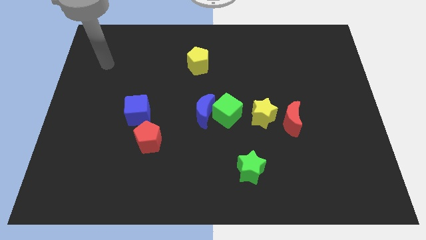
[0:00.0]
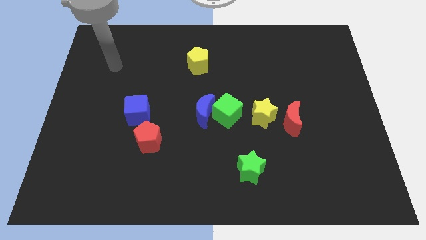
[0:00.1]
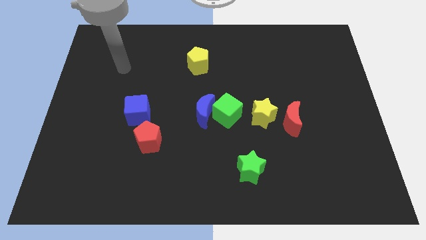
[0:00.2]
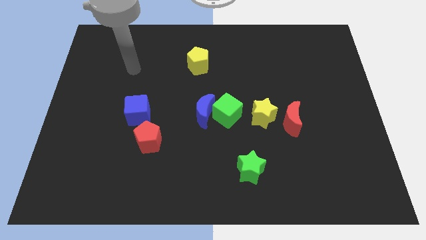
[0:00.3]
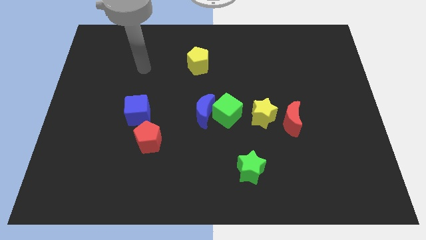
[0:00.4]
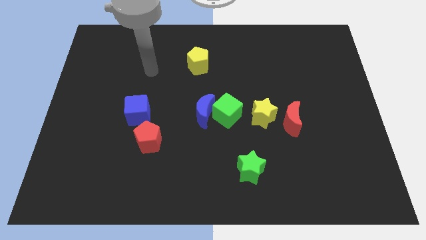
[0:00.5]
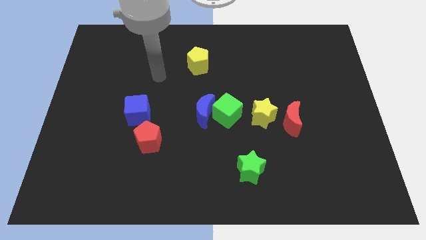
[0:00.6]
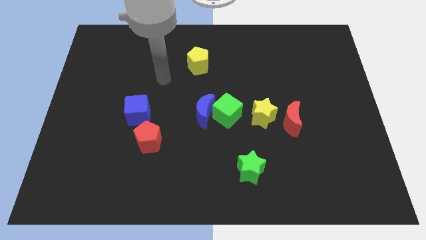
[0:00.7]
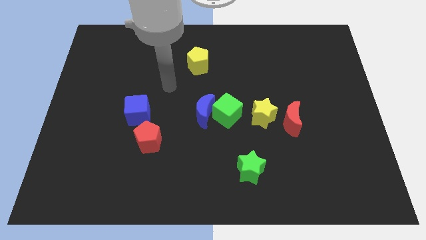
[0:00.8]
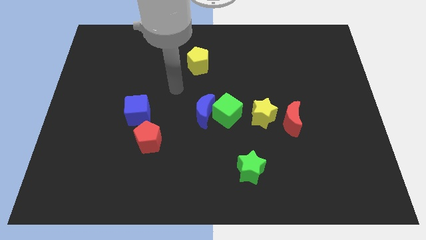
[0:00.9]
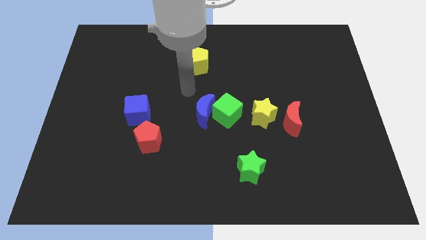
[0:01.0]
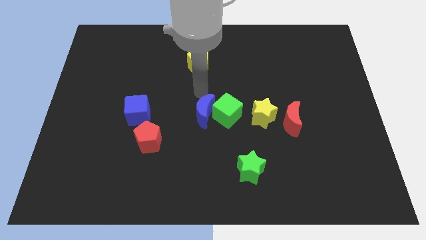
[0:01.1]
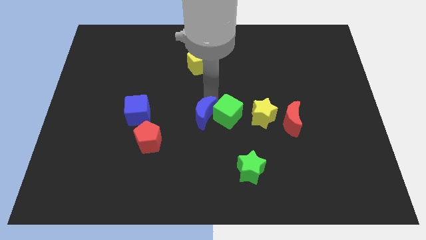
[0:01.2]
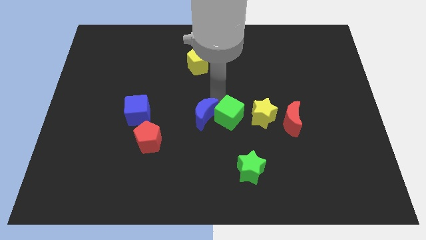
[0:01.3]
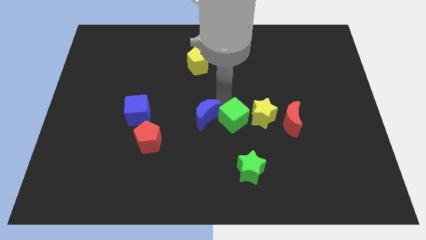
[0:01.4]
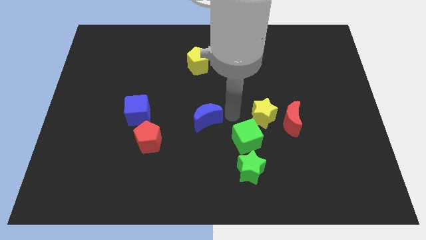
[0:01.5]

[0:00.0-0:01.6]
move the blue moon away from the green cube

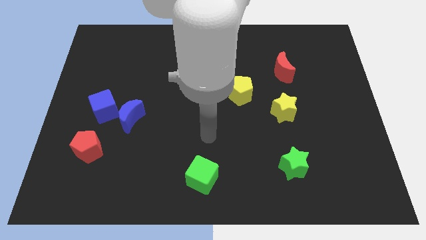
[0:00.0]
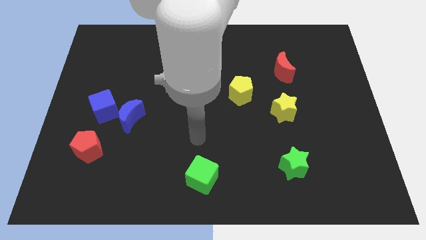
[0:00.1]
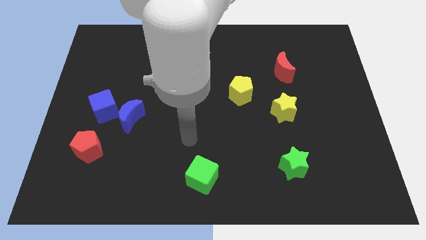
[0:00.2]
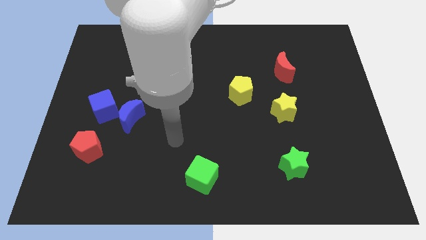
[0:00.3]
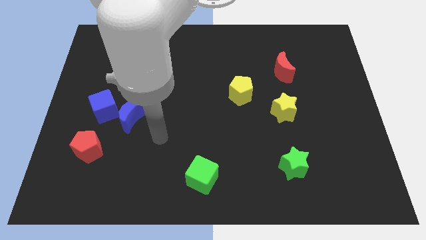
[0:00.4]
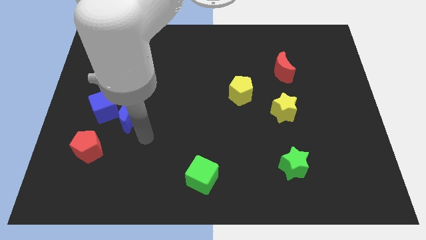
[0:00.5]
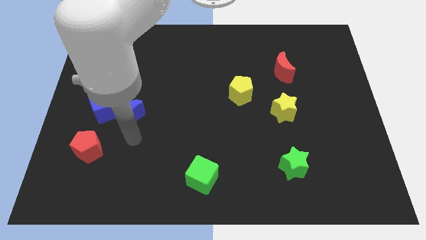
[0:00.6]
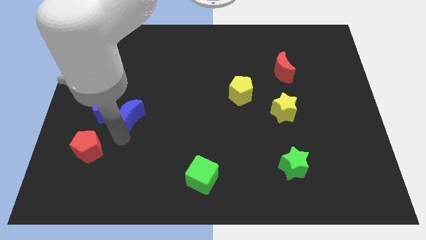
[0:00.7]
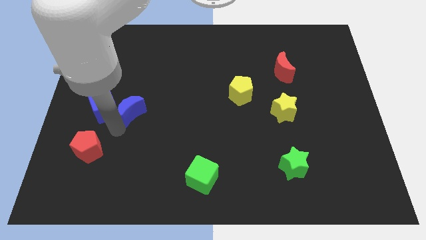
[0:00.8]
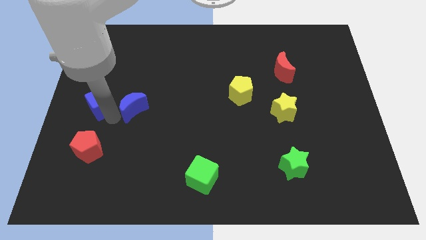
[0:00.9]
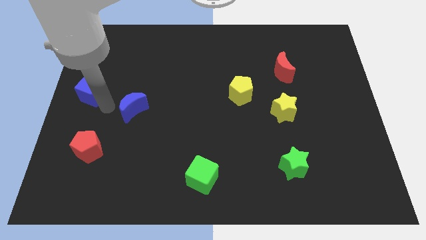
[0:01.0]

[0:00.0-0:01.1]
separate the blue moon from the blue cube

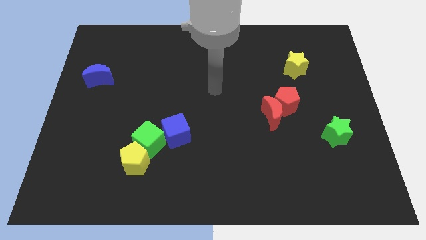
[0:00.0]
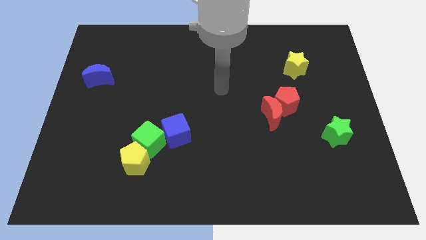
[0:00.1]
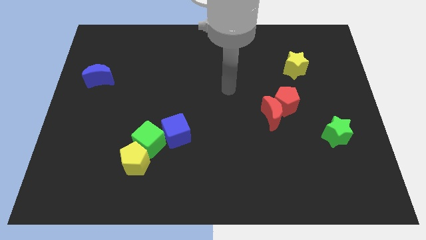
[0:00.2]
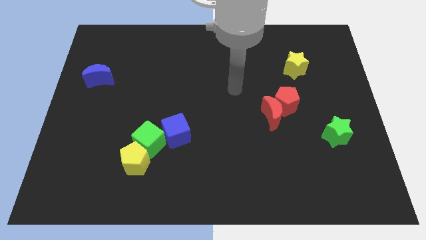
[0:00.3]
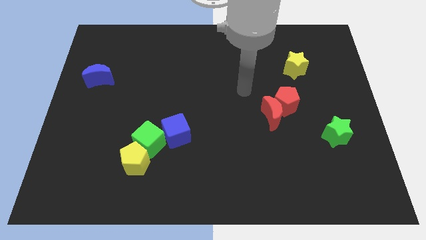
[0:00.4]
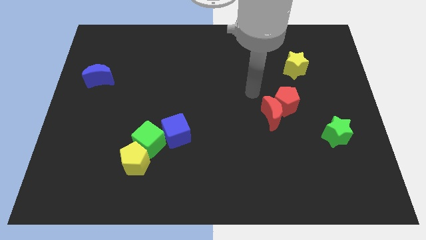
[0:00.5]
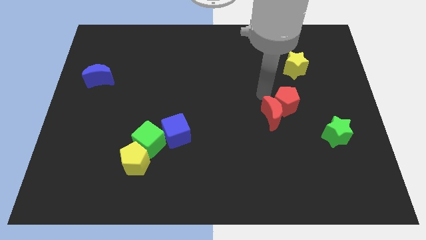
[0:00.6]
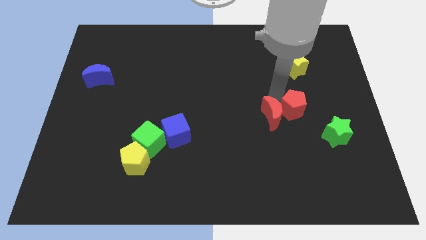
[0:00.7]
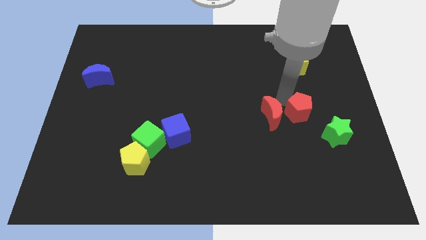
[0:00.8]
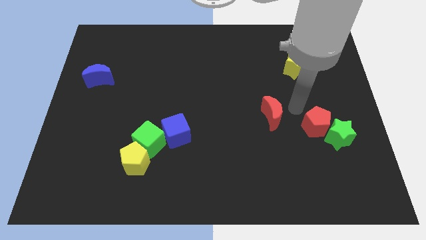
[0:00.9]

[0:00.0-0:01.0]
move the red moon away from the red pentagon

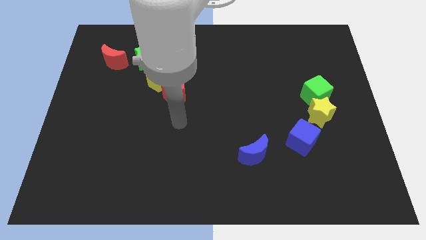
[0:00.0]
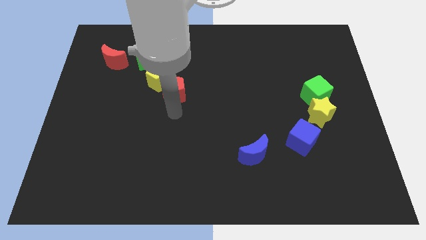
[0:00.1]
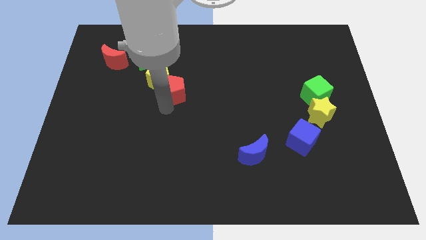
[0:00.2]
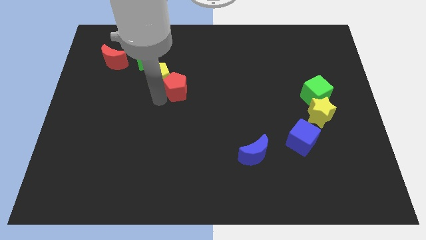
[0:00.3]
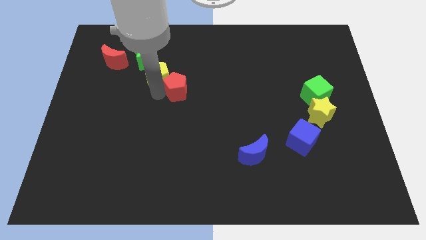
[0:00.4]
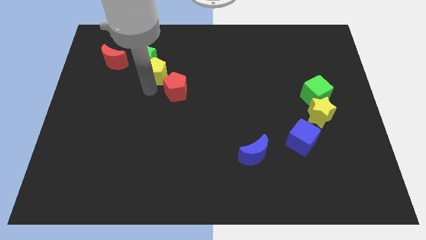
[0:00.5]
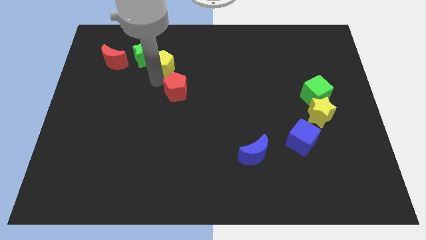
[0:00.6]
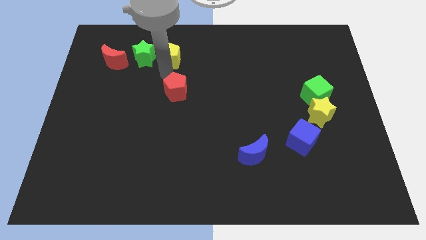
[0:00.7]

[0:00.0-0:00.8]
pull the red pentagon apart from the yellow pentagon

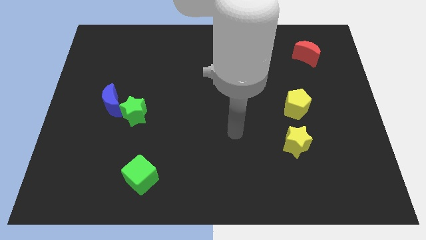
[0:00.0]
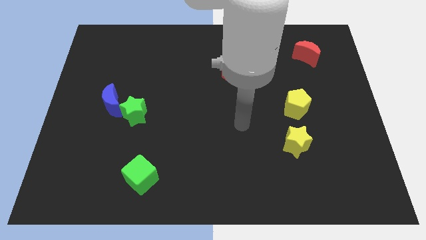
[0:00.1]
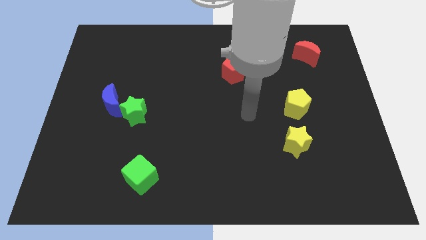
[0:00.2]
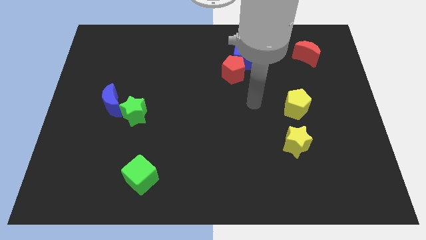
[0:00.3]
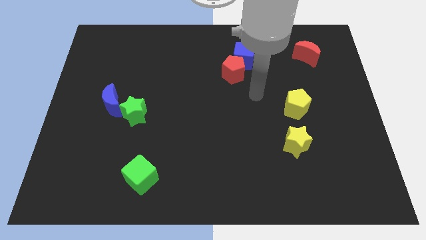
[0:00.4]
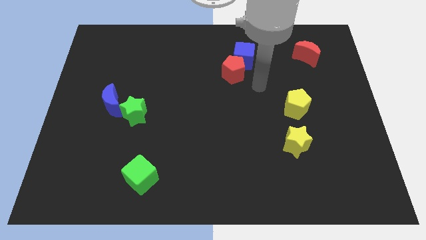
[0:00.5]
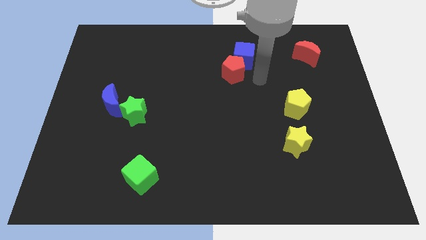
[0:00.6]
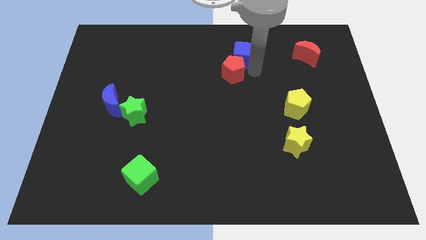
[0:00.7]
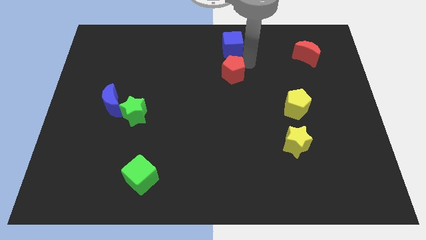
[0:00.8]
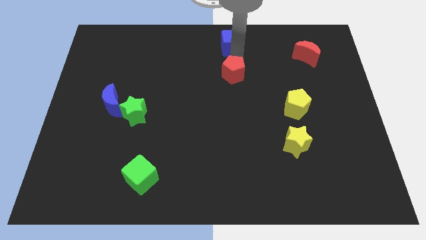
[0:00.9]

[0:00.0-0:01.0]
move the red pentagon away from the blue cube

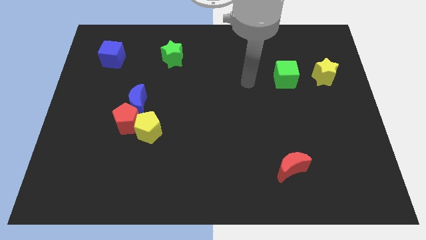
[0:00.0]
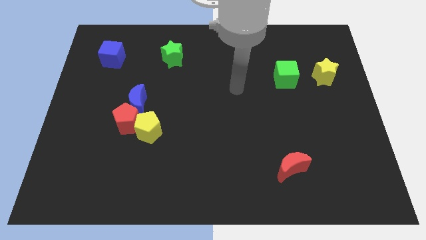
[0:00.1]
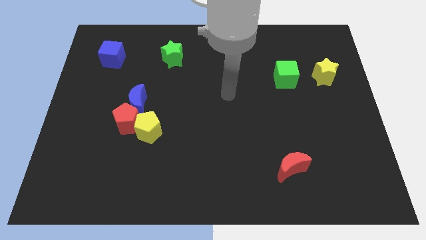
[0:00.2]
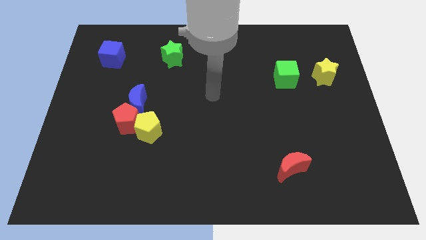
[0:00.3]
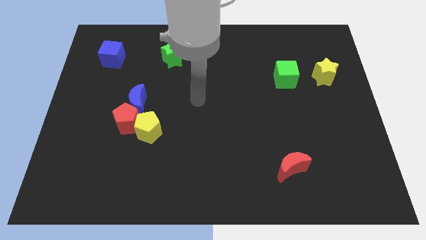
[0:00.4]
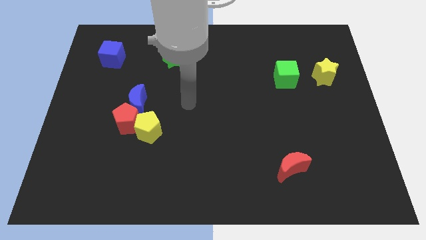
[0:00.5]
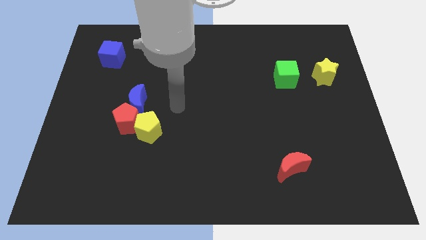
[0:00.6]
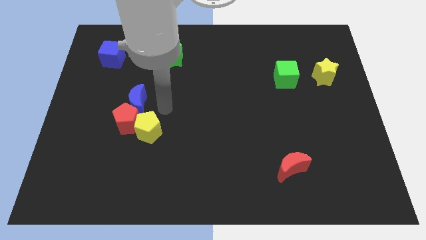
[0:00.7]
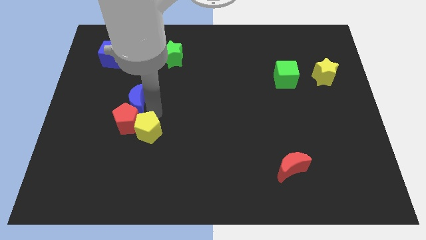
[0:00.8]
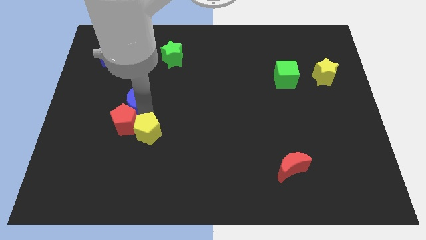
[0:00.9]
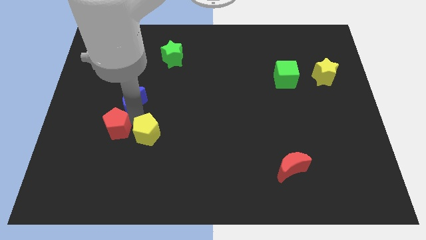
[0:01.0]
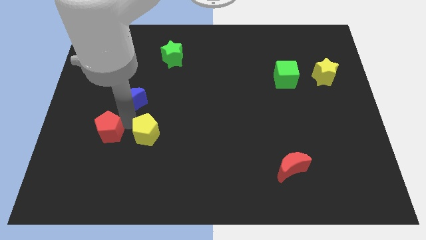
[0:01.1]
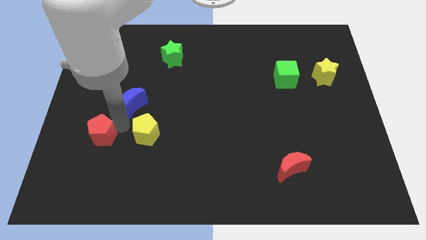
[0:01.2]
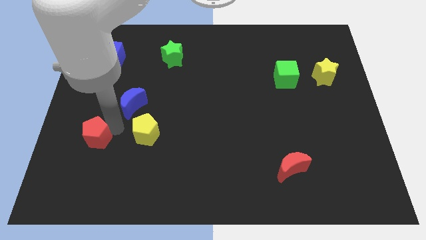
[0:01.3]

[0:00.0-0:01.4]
pull the red pentagon apart from the yellow pentagon and blue moon

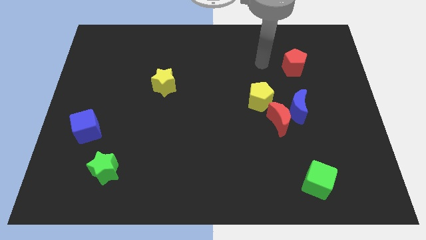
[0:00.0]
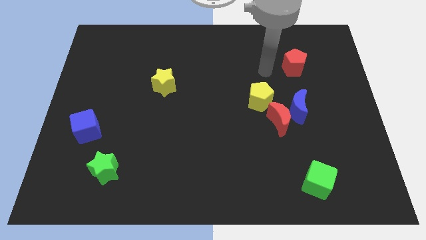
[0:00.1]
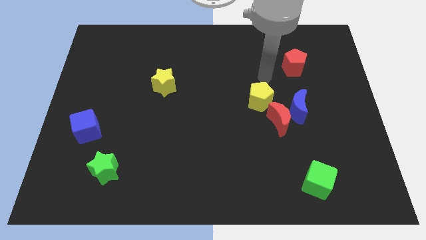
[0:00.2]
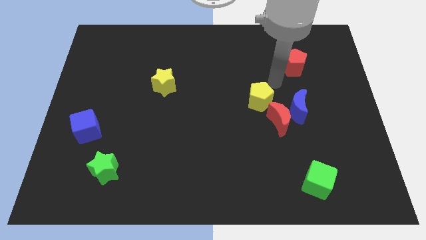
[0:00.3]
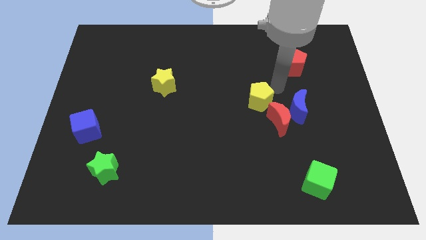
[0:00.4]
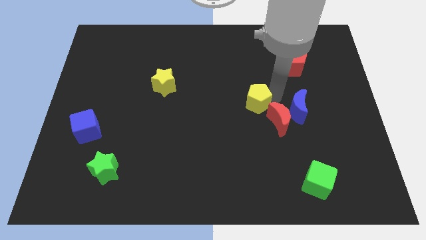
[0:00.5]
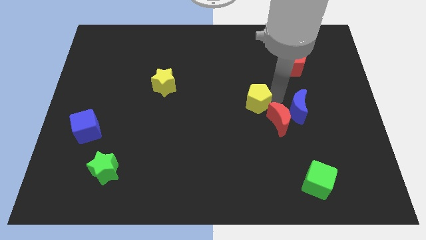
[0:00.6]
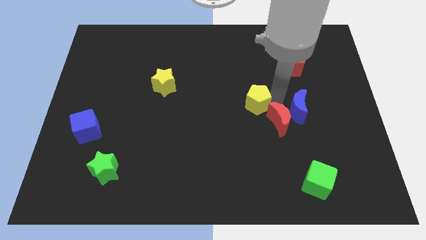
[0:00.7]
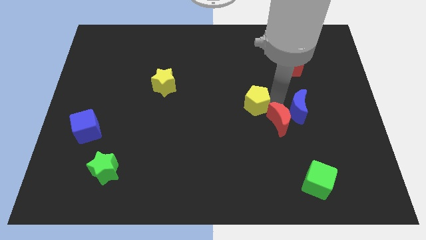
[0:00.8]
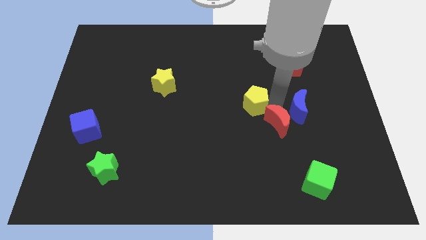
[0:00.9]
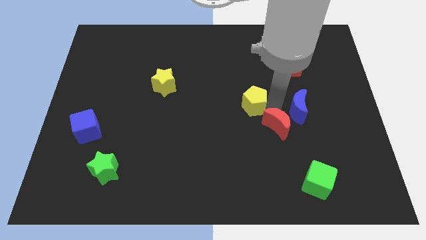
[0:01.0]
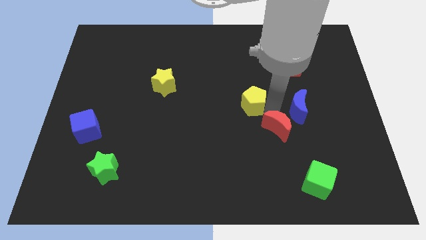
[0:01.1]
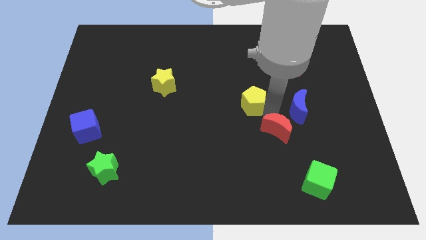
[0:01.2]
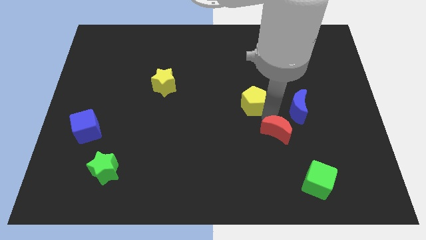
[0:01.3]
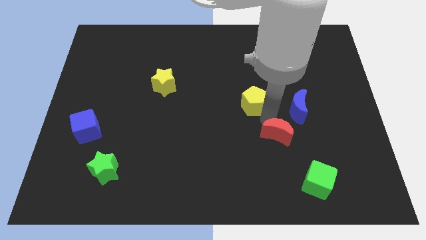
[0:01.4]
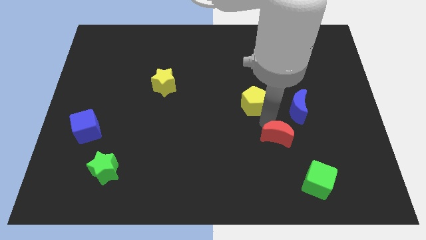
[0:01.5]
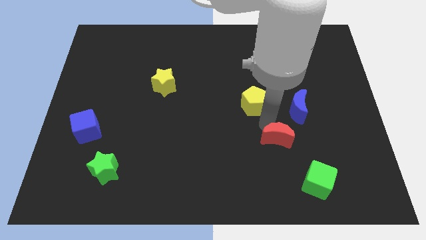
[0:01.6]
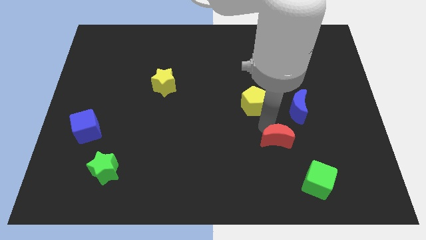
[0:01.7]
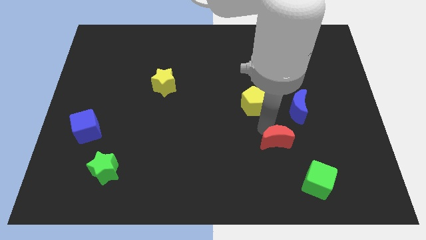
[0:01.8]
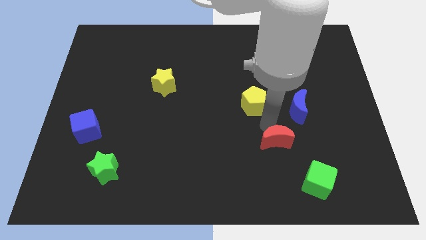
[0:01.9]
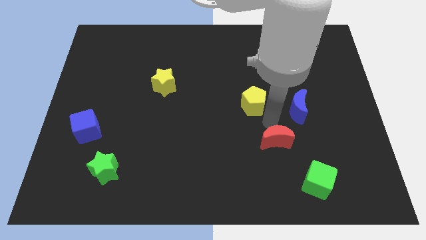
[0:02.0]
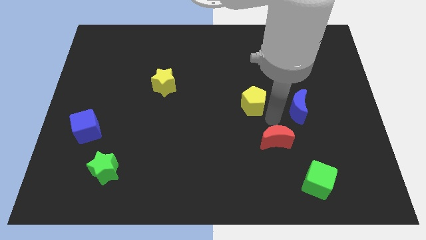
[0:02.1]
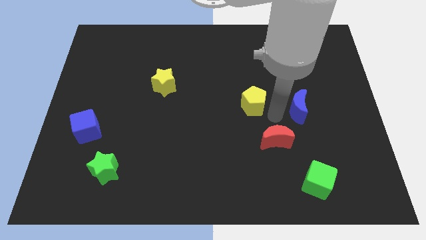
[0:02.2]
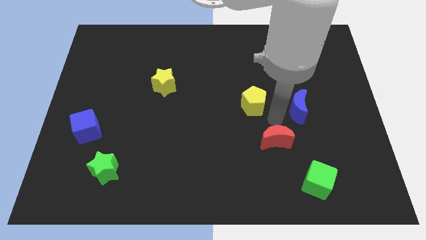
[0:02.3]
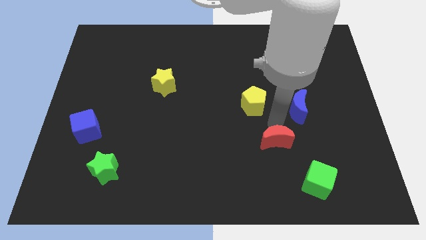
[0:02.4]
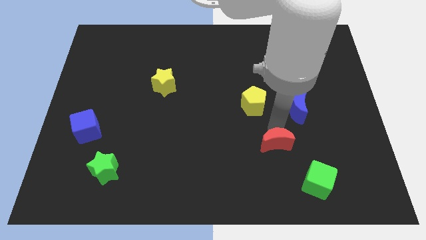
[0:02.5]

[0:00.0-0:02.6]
move the red moon away from the blue moon and yellow pentagon
